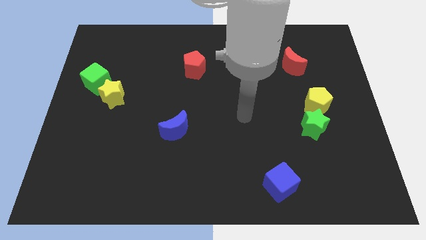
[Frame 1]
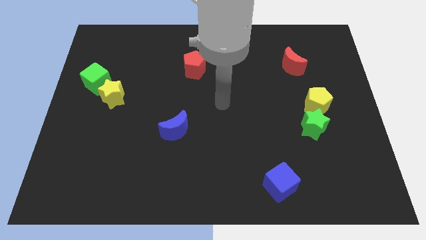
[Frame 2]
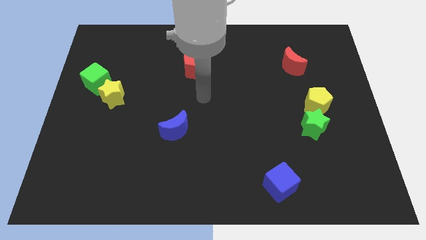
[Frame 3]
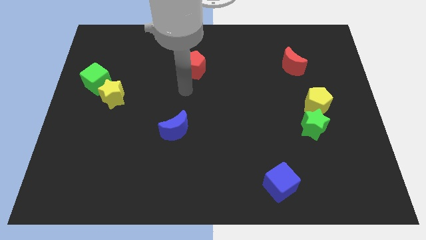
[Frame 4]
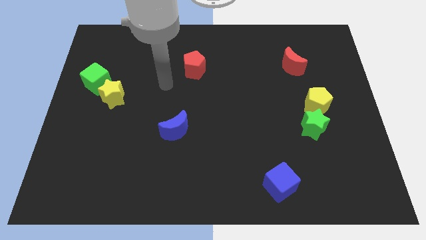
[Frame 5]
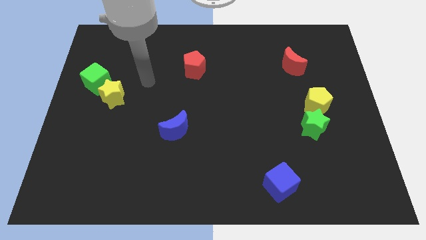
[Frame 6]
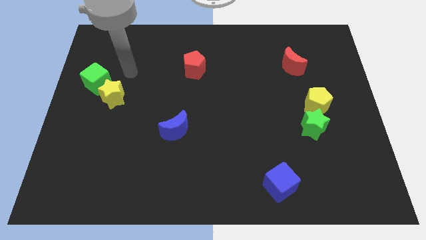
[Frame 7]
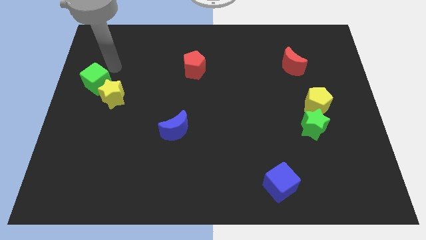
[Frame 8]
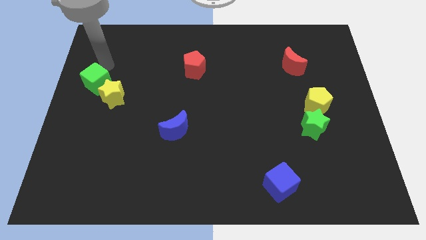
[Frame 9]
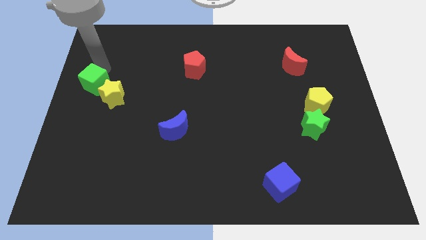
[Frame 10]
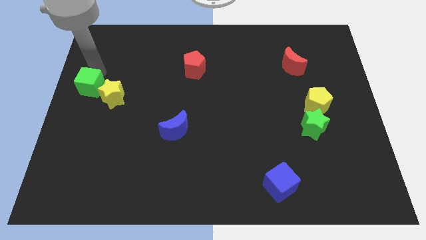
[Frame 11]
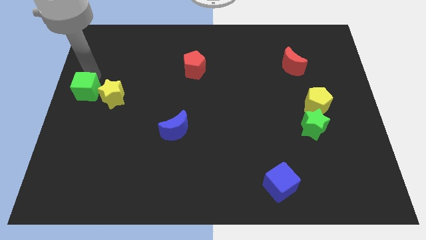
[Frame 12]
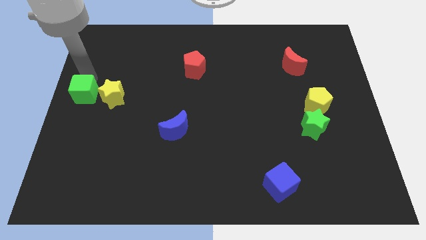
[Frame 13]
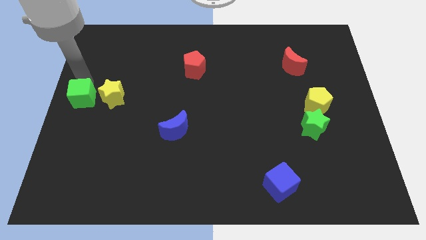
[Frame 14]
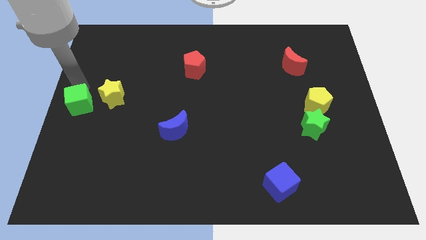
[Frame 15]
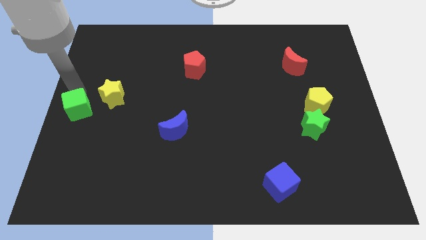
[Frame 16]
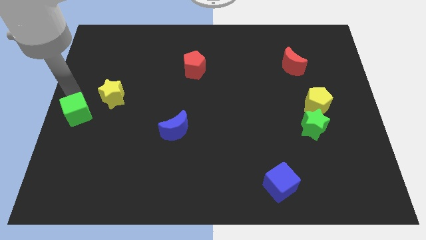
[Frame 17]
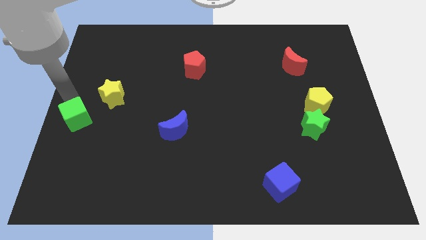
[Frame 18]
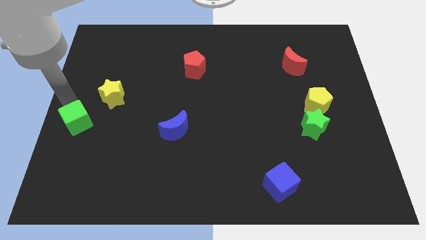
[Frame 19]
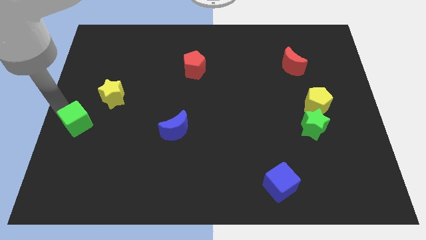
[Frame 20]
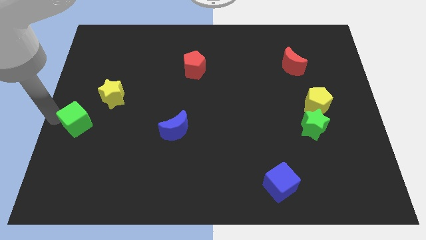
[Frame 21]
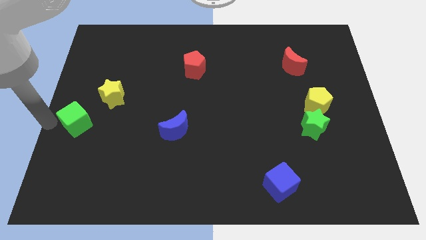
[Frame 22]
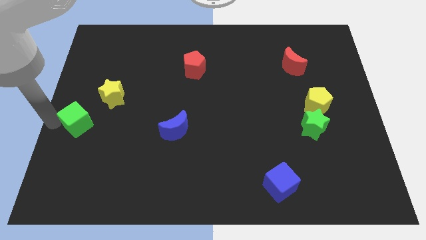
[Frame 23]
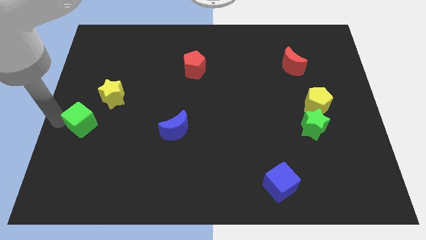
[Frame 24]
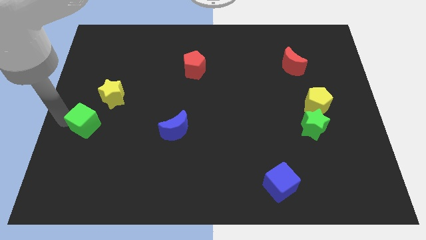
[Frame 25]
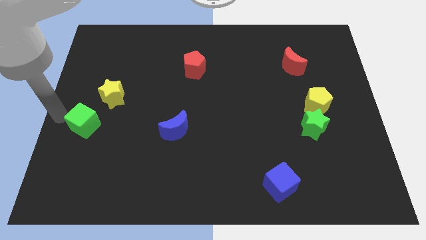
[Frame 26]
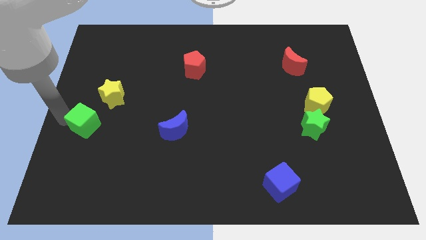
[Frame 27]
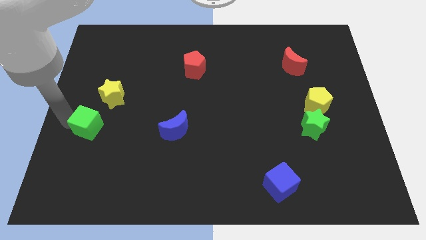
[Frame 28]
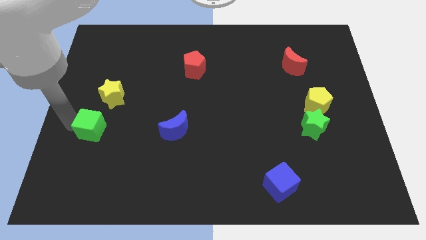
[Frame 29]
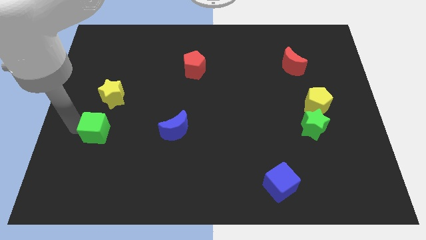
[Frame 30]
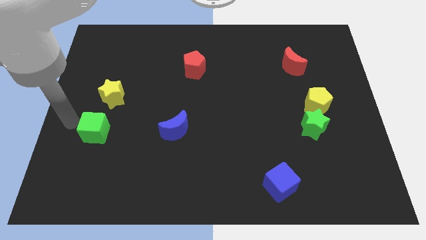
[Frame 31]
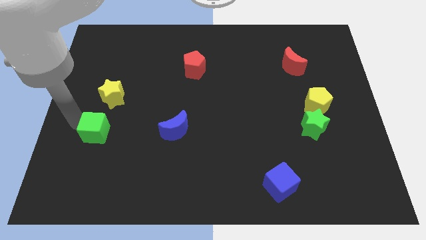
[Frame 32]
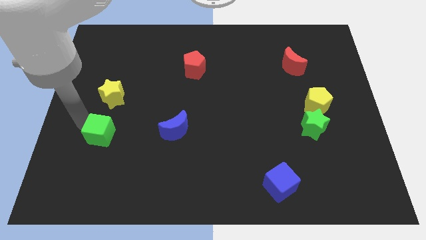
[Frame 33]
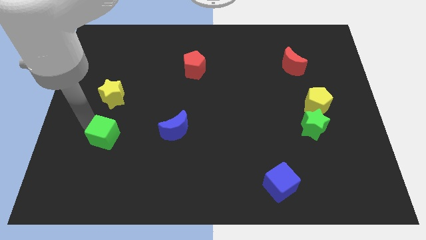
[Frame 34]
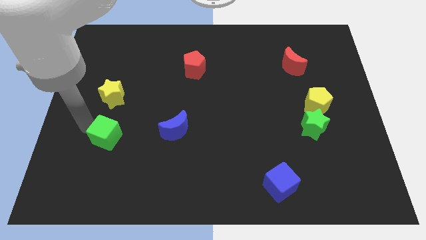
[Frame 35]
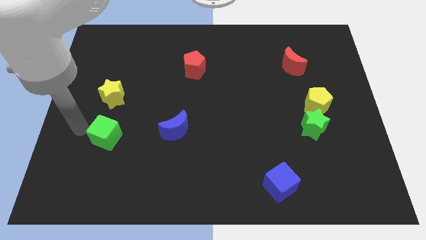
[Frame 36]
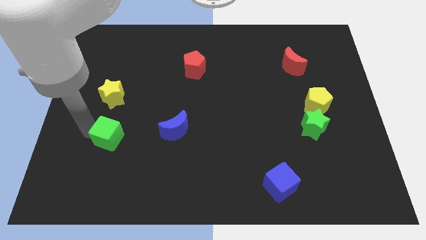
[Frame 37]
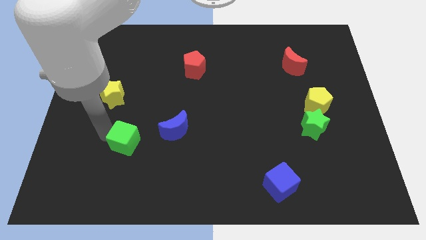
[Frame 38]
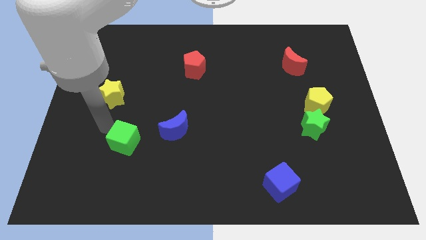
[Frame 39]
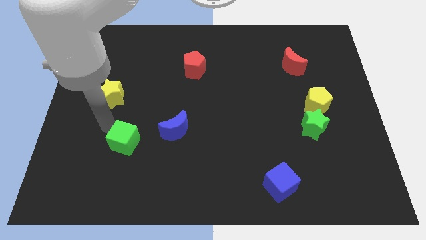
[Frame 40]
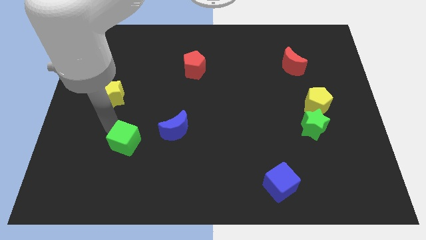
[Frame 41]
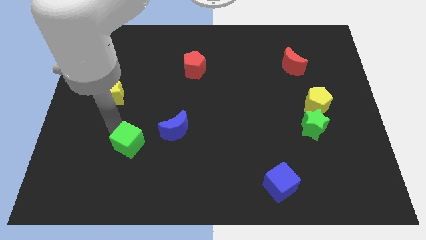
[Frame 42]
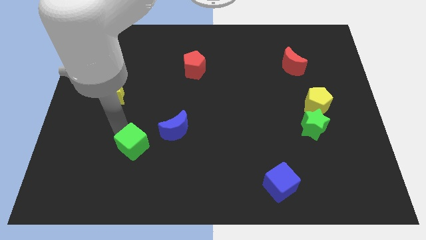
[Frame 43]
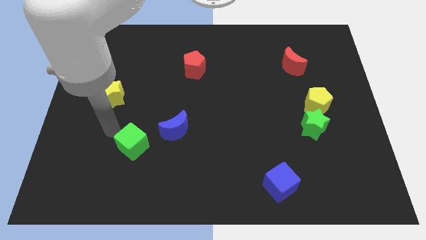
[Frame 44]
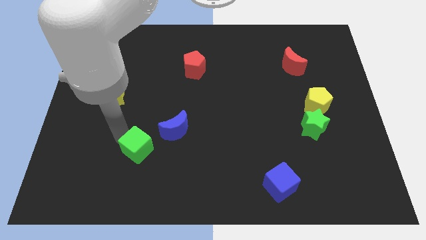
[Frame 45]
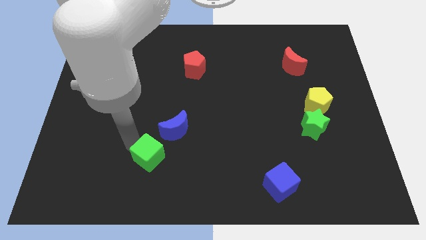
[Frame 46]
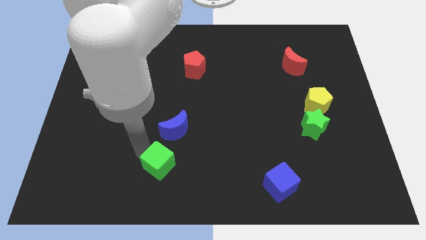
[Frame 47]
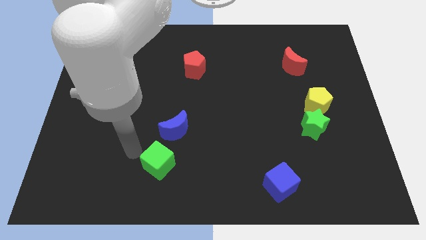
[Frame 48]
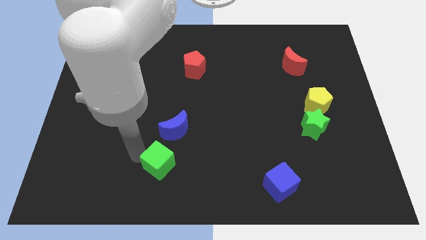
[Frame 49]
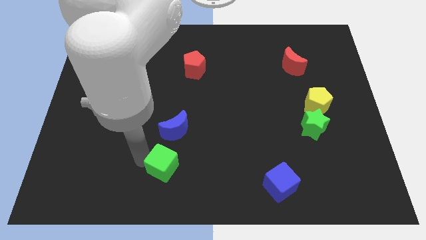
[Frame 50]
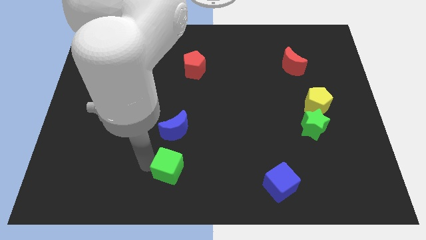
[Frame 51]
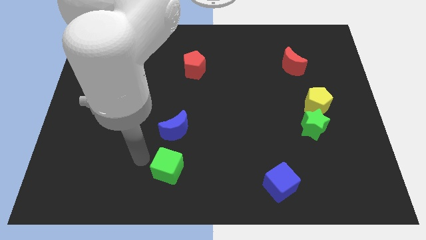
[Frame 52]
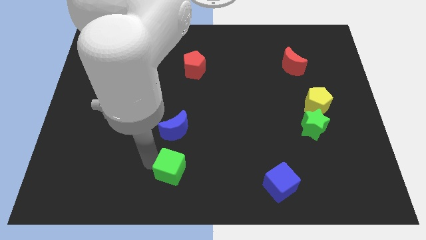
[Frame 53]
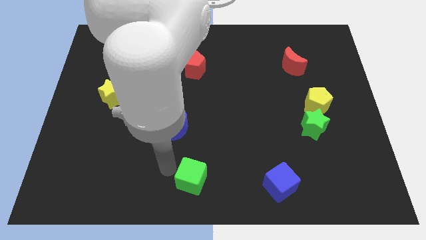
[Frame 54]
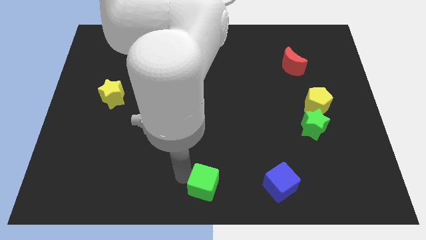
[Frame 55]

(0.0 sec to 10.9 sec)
put the green cube to the left side of the blue cube
